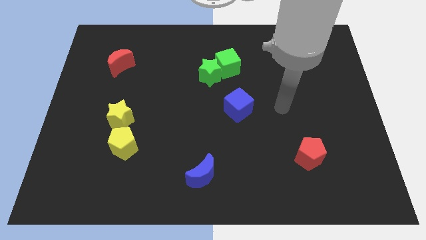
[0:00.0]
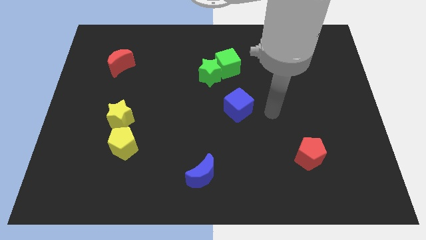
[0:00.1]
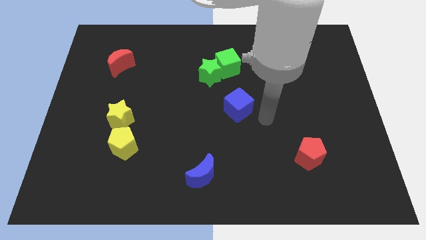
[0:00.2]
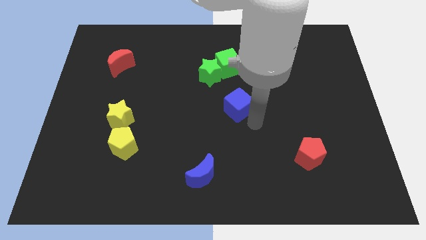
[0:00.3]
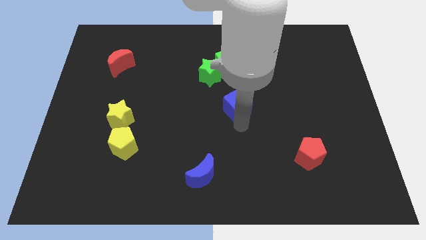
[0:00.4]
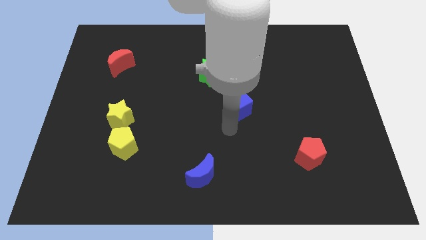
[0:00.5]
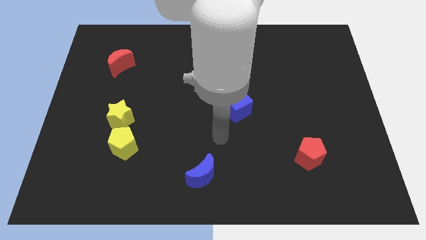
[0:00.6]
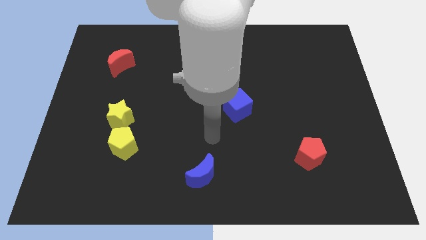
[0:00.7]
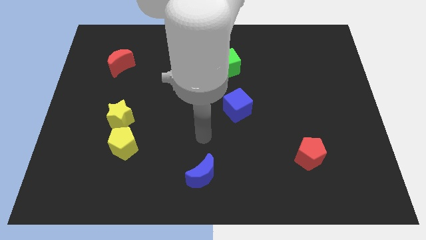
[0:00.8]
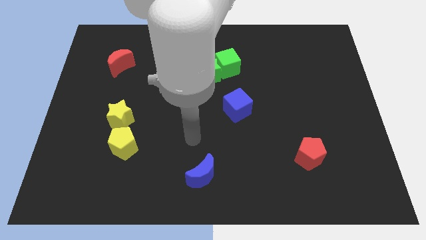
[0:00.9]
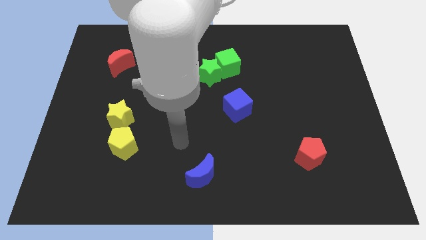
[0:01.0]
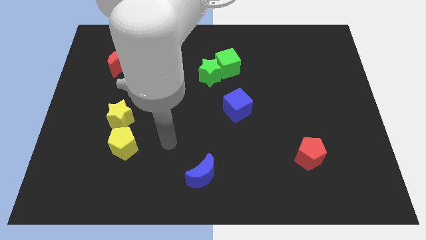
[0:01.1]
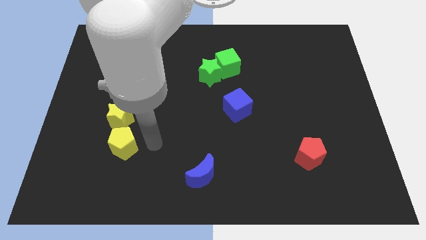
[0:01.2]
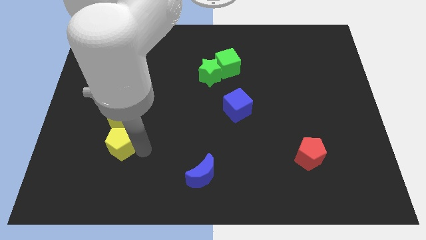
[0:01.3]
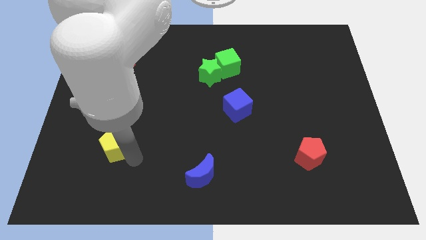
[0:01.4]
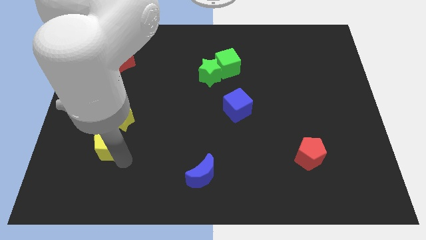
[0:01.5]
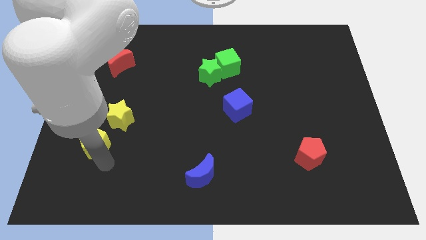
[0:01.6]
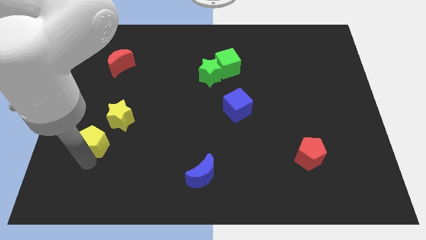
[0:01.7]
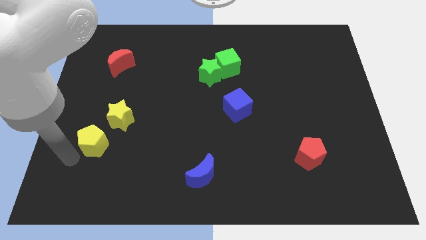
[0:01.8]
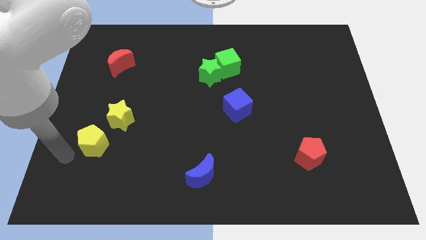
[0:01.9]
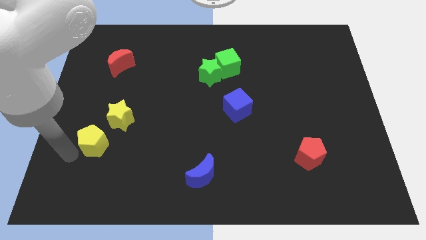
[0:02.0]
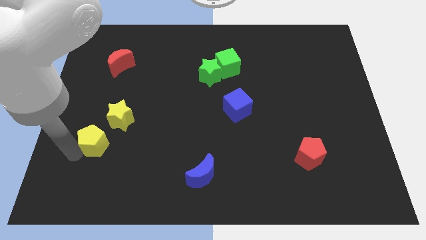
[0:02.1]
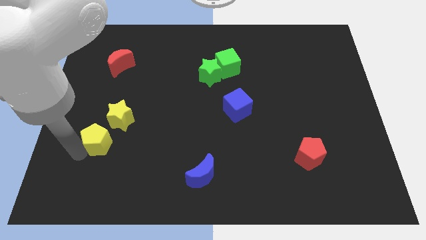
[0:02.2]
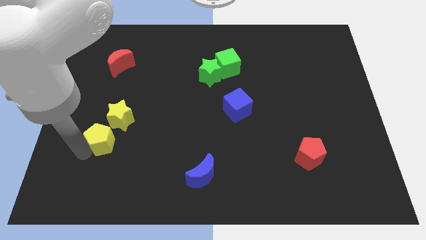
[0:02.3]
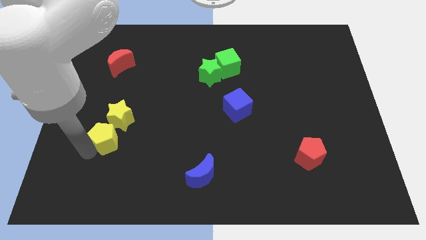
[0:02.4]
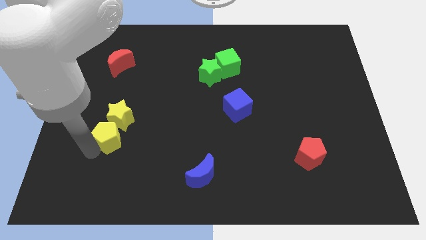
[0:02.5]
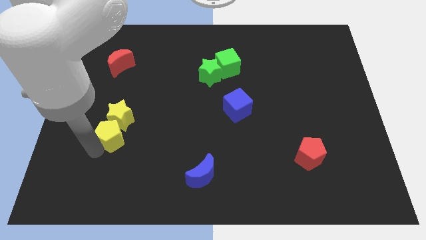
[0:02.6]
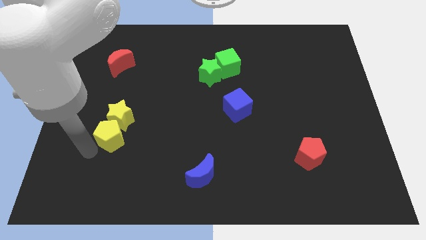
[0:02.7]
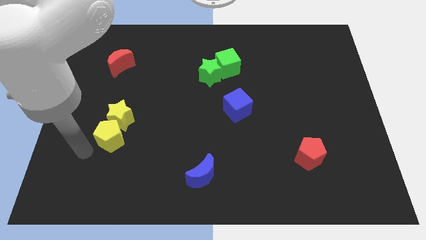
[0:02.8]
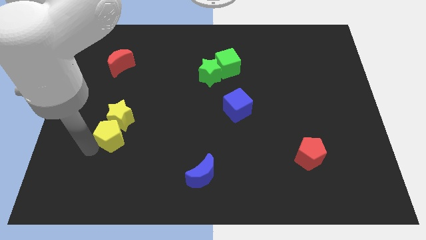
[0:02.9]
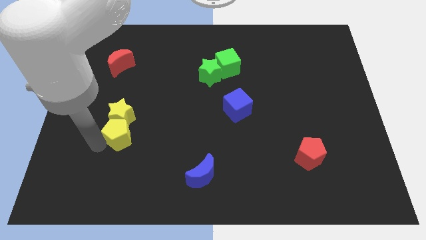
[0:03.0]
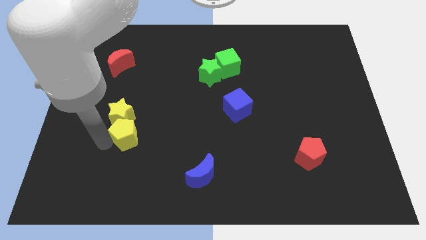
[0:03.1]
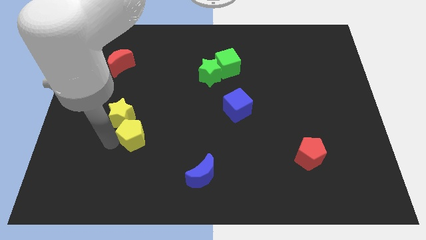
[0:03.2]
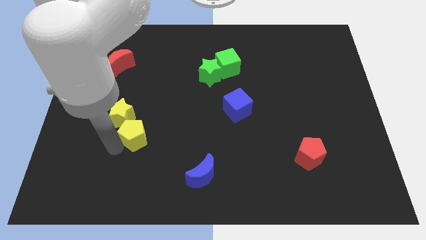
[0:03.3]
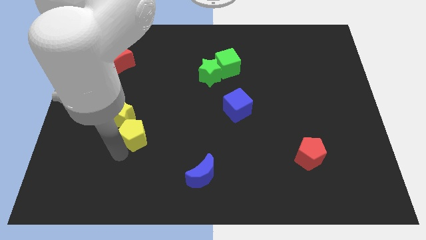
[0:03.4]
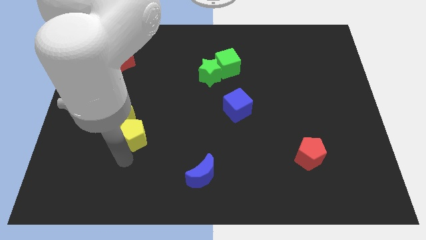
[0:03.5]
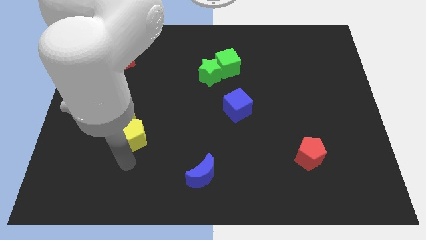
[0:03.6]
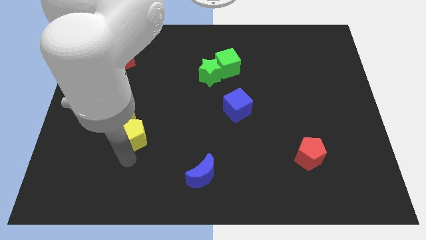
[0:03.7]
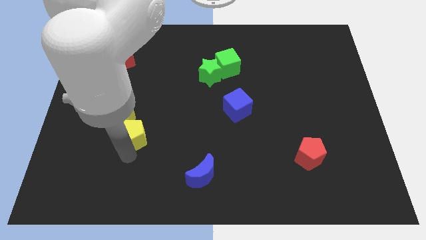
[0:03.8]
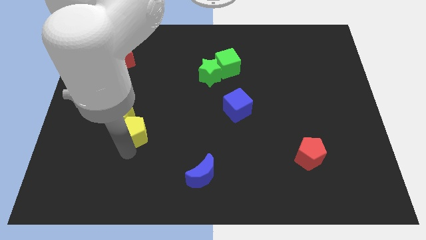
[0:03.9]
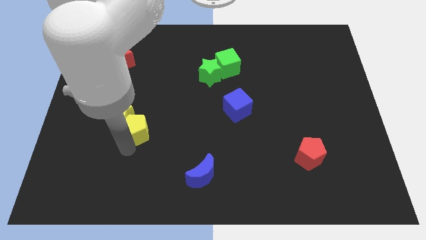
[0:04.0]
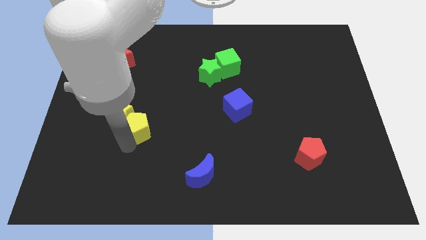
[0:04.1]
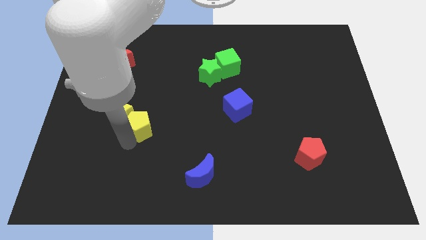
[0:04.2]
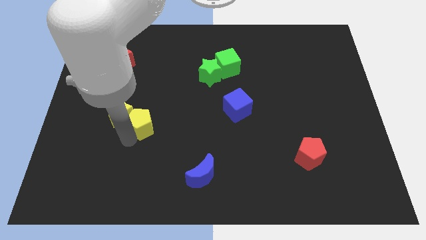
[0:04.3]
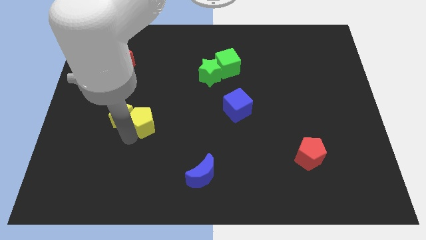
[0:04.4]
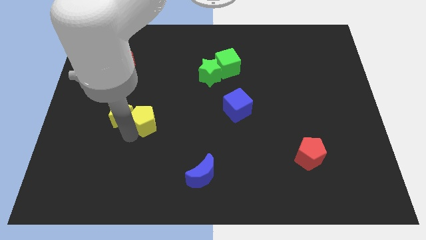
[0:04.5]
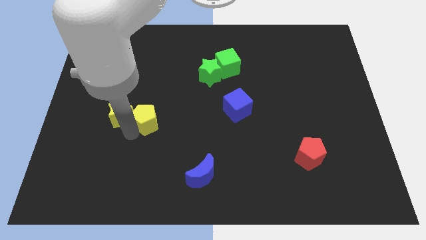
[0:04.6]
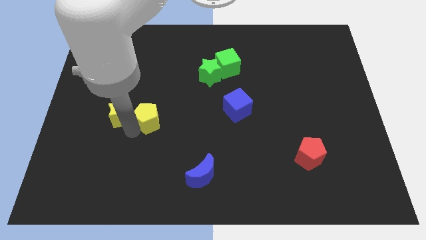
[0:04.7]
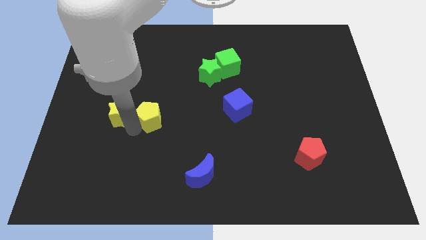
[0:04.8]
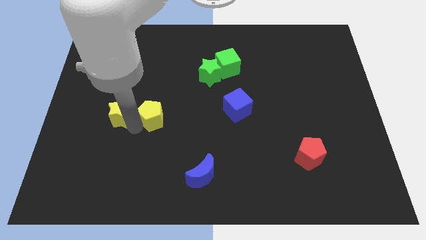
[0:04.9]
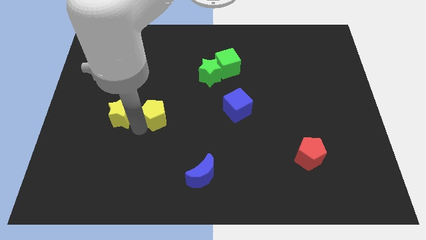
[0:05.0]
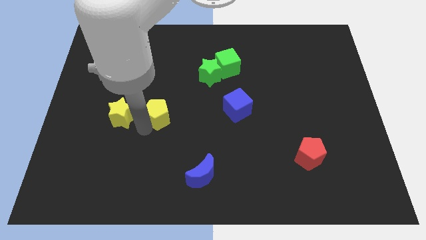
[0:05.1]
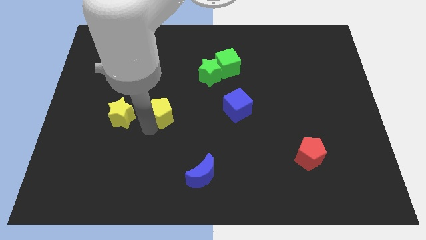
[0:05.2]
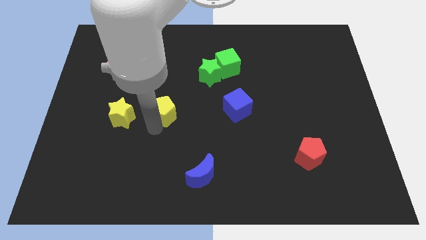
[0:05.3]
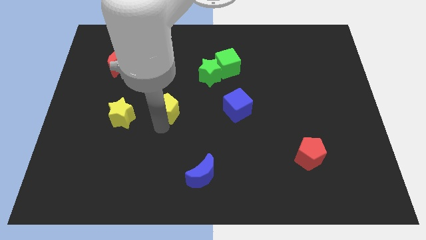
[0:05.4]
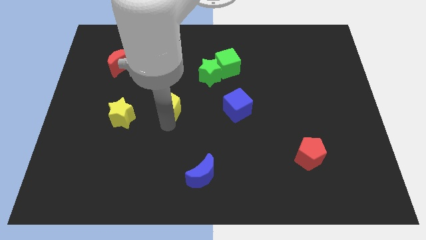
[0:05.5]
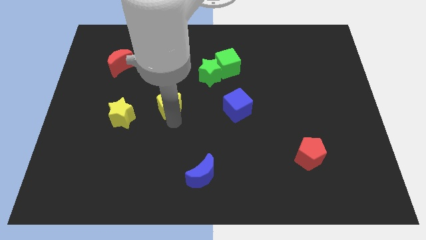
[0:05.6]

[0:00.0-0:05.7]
slightly slide the yellow pentagon up

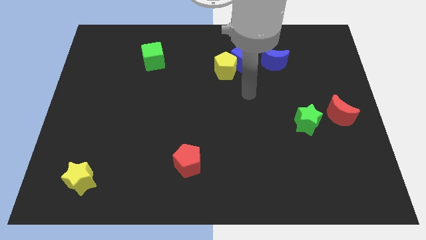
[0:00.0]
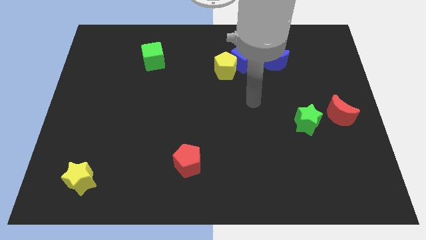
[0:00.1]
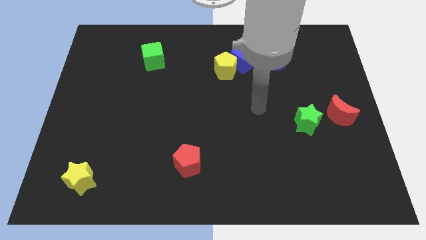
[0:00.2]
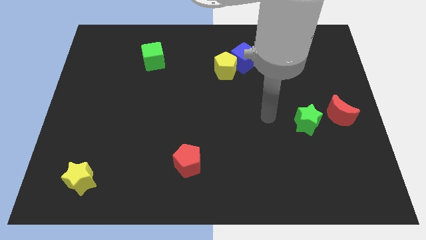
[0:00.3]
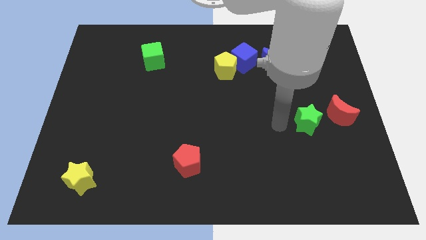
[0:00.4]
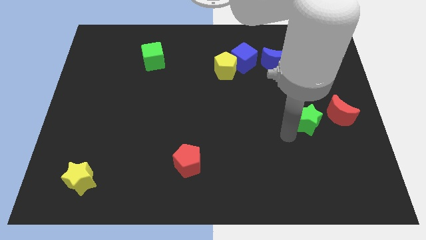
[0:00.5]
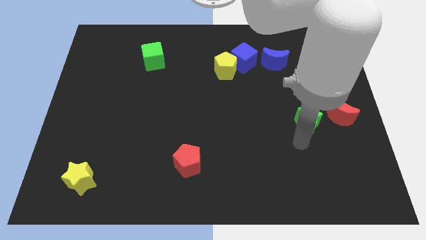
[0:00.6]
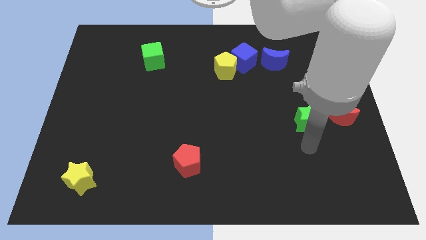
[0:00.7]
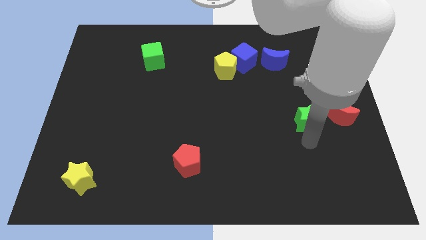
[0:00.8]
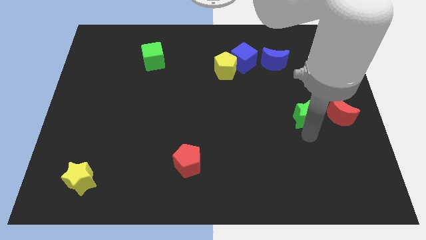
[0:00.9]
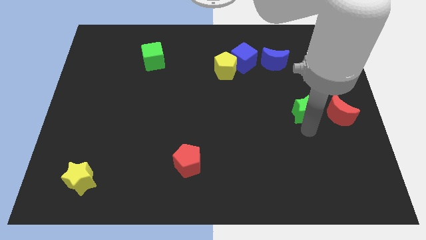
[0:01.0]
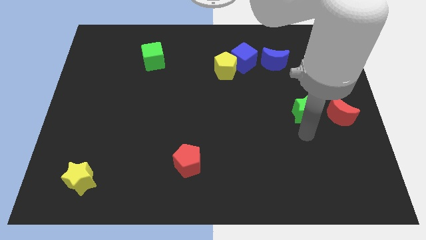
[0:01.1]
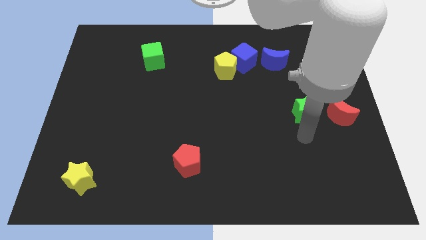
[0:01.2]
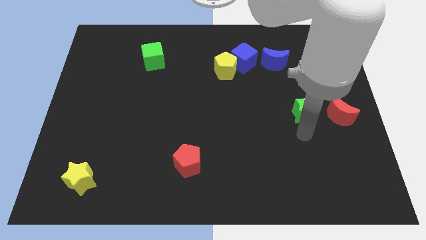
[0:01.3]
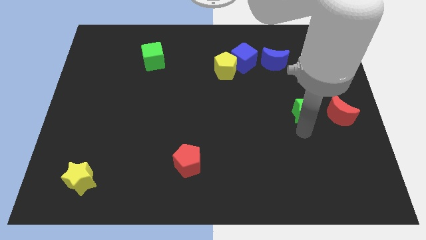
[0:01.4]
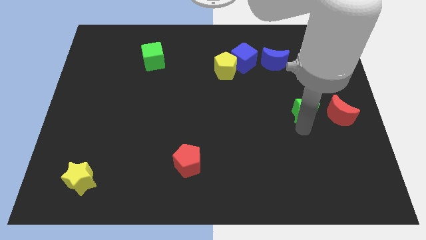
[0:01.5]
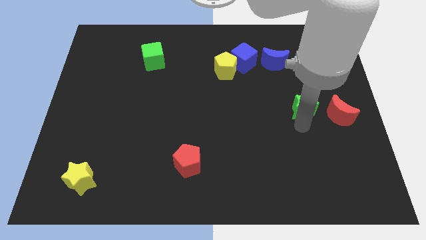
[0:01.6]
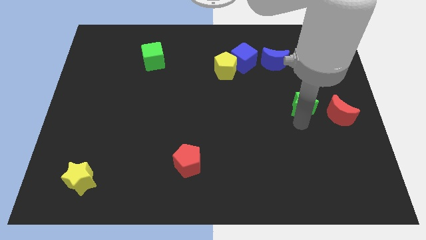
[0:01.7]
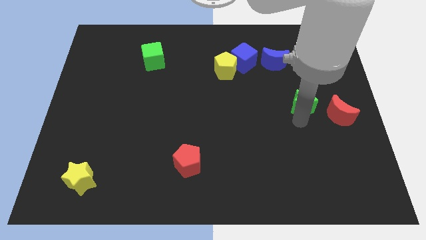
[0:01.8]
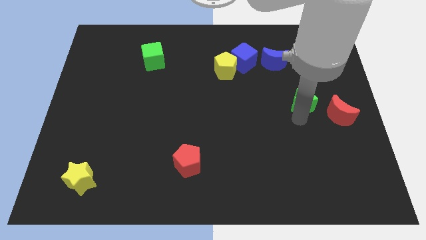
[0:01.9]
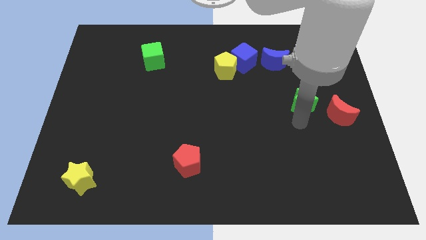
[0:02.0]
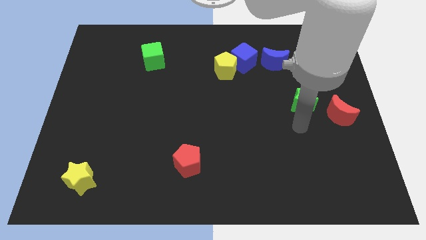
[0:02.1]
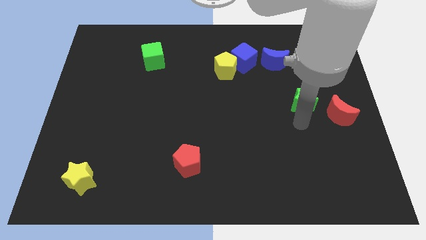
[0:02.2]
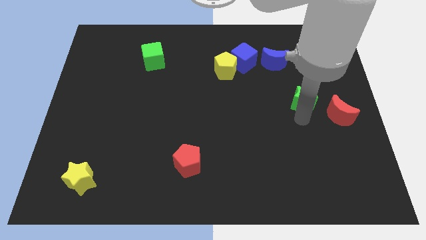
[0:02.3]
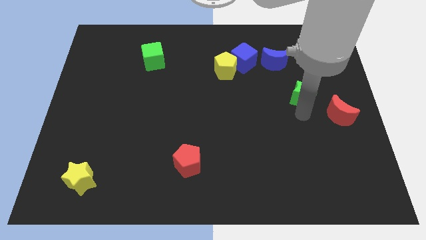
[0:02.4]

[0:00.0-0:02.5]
push the green star upwards a little
